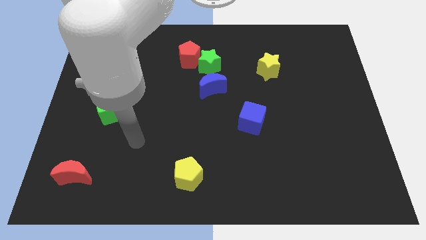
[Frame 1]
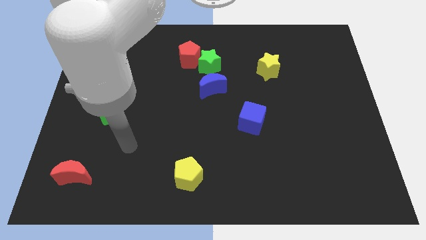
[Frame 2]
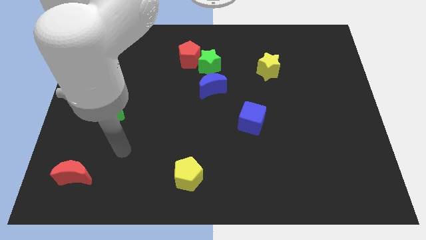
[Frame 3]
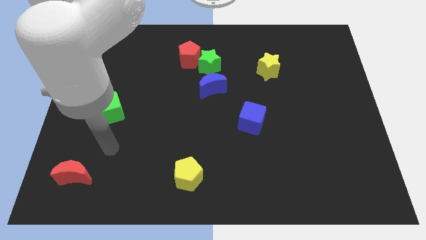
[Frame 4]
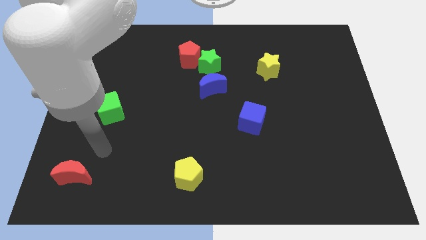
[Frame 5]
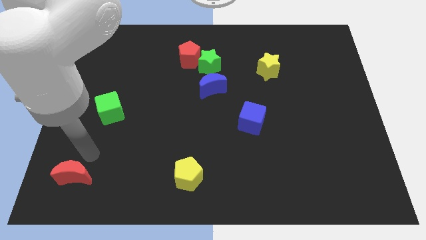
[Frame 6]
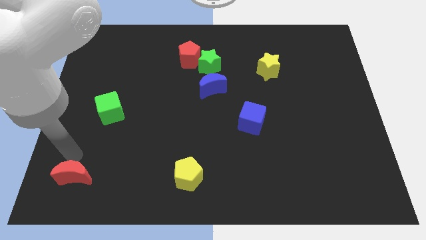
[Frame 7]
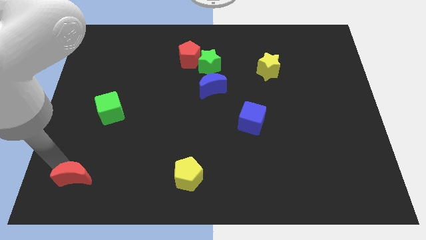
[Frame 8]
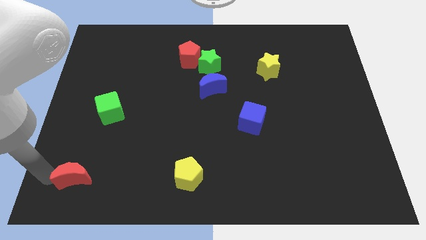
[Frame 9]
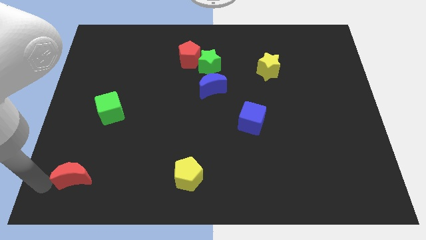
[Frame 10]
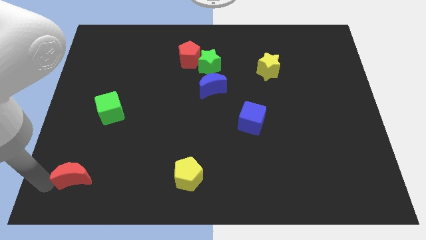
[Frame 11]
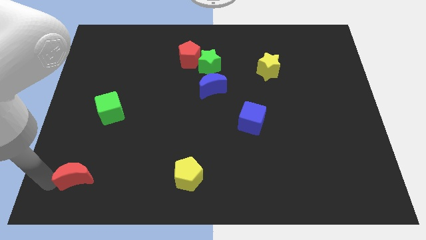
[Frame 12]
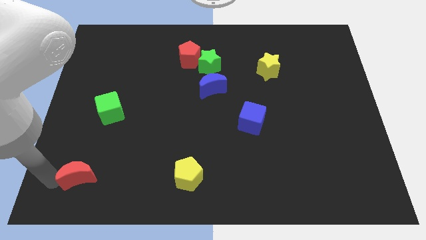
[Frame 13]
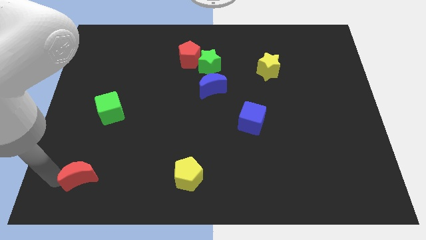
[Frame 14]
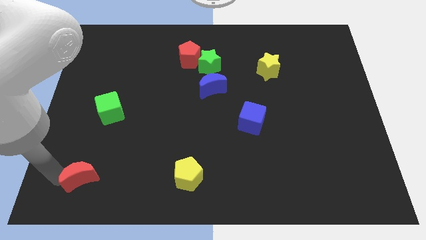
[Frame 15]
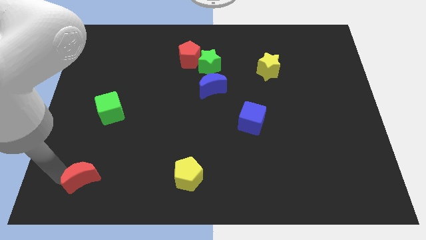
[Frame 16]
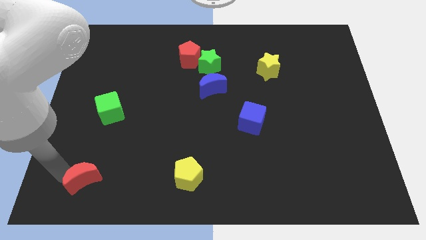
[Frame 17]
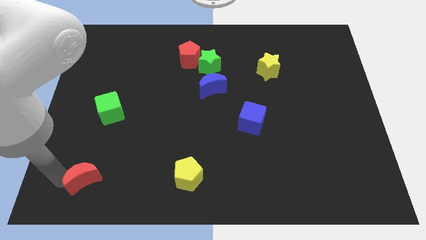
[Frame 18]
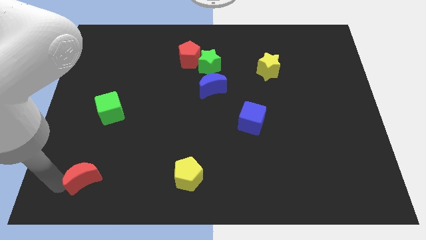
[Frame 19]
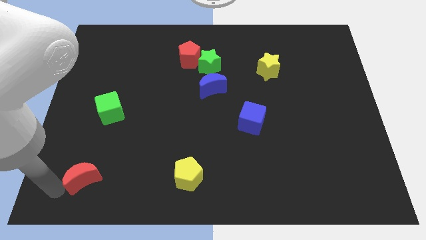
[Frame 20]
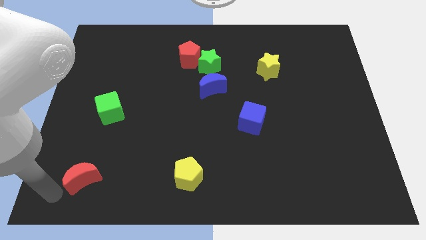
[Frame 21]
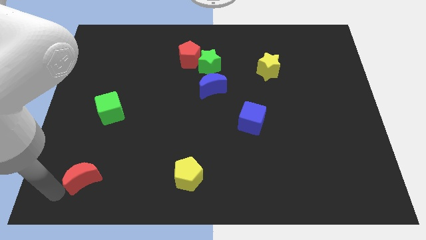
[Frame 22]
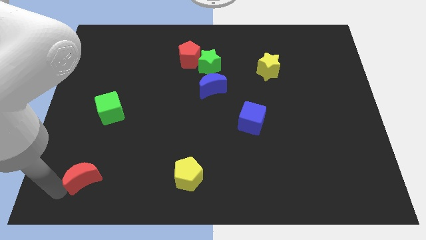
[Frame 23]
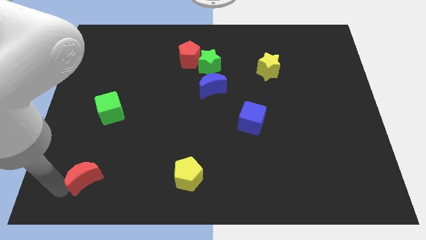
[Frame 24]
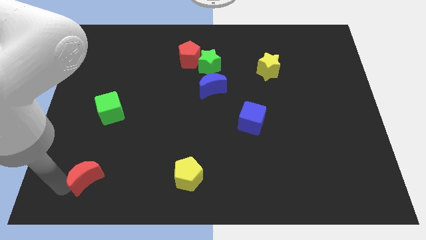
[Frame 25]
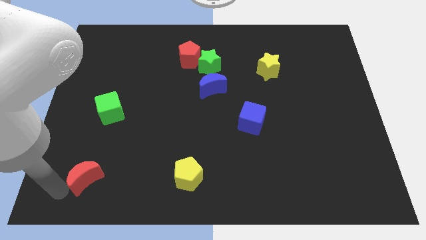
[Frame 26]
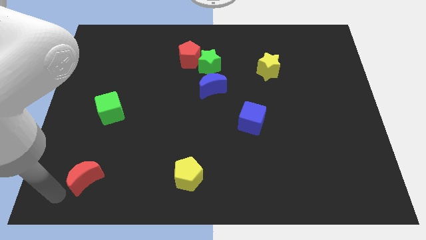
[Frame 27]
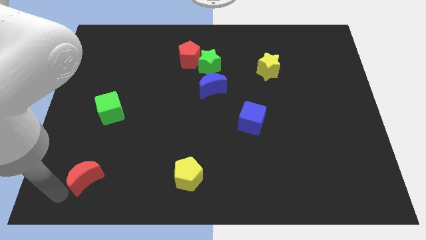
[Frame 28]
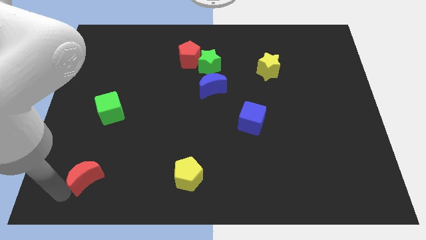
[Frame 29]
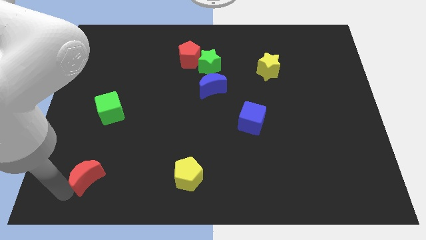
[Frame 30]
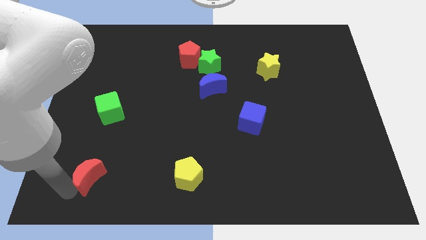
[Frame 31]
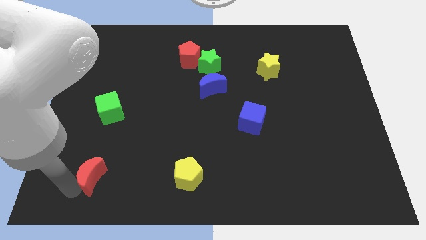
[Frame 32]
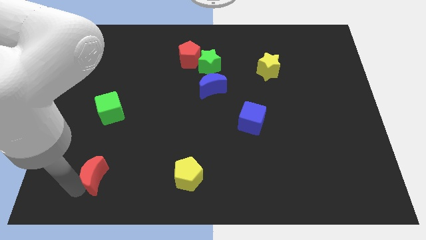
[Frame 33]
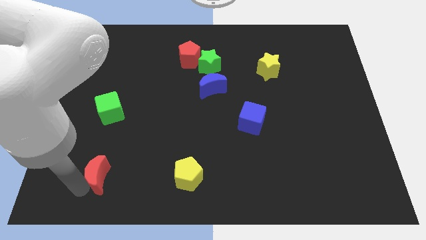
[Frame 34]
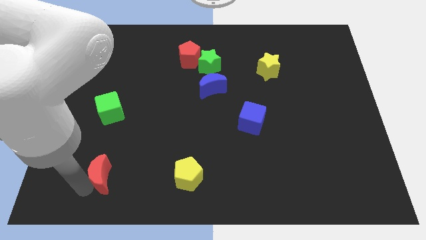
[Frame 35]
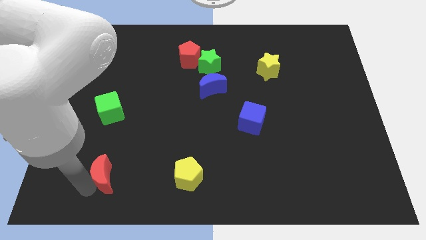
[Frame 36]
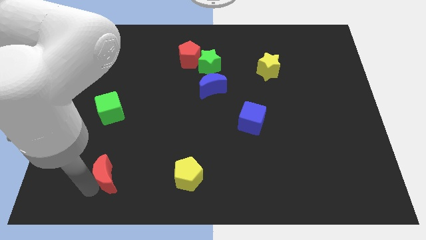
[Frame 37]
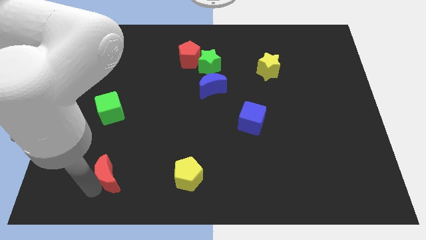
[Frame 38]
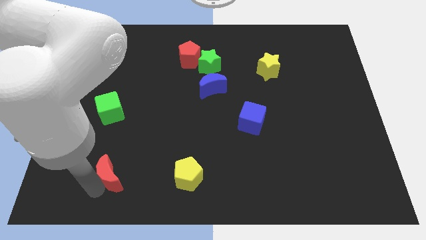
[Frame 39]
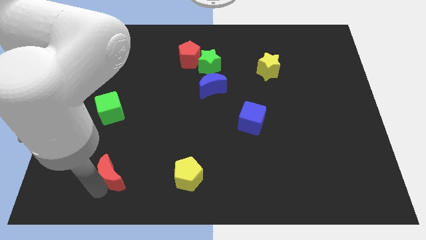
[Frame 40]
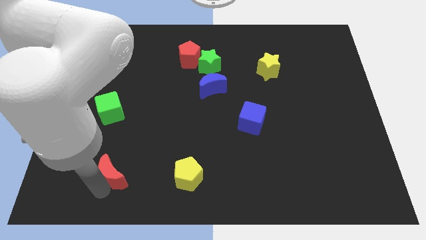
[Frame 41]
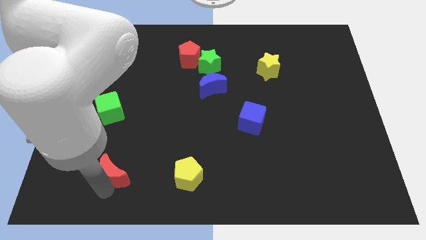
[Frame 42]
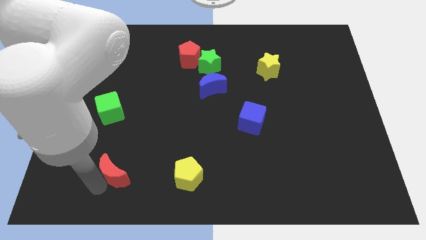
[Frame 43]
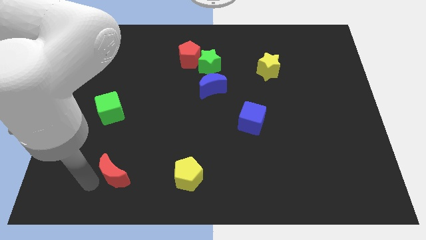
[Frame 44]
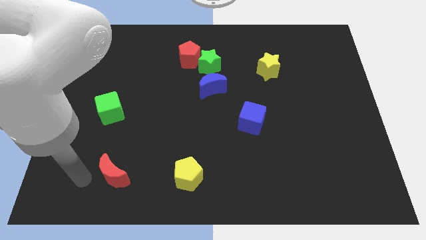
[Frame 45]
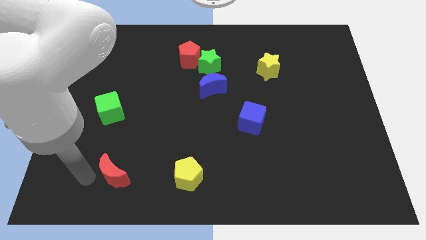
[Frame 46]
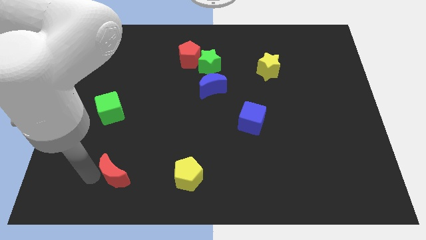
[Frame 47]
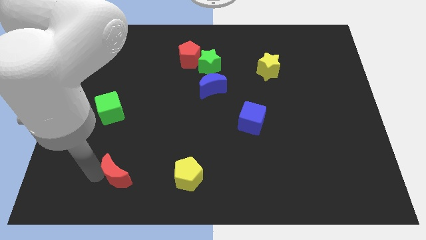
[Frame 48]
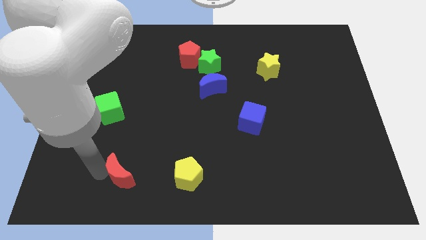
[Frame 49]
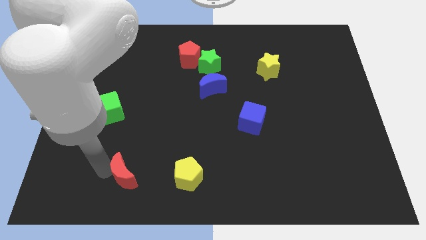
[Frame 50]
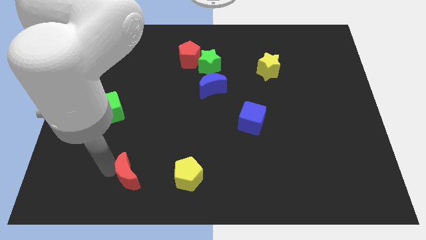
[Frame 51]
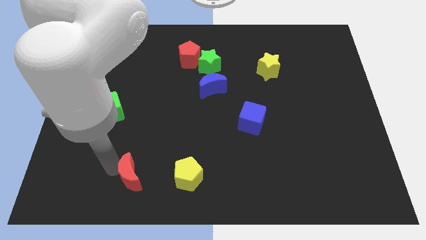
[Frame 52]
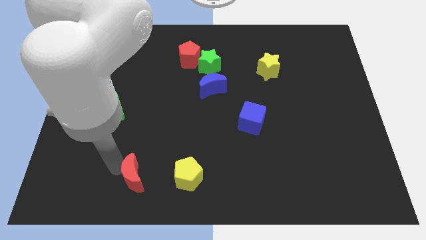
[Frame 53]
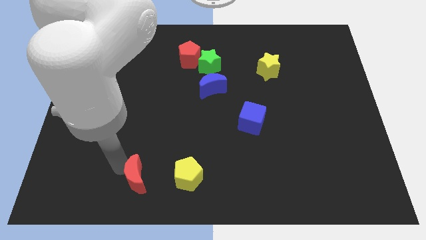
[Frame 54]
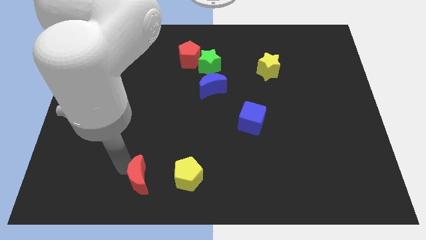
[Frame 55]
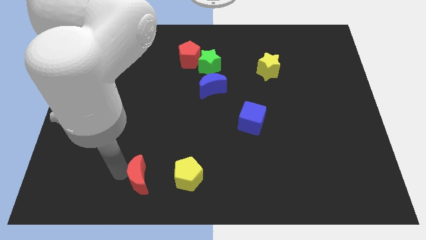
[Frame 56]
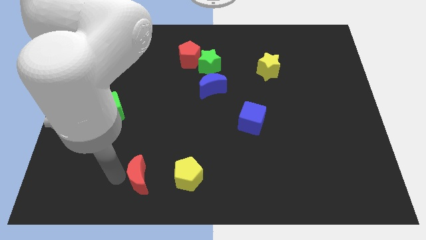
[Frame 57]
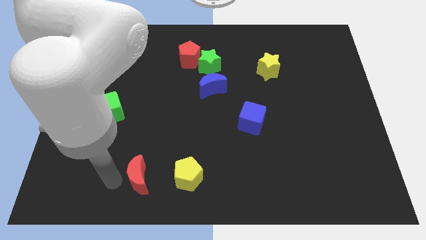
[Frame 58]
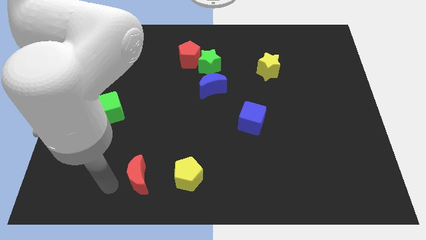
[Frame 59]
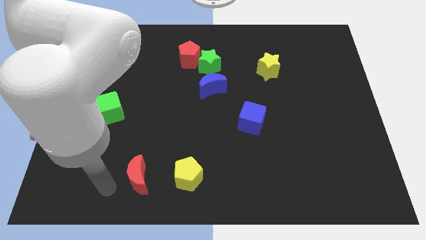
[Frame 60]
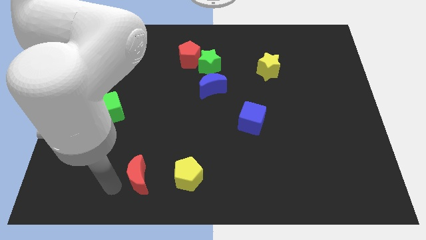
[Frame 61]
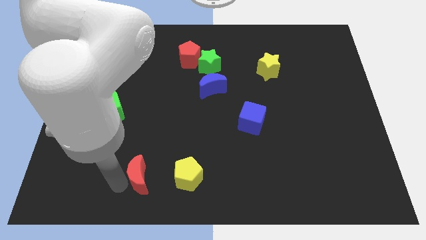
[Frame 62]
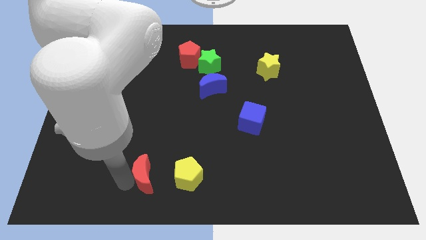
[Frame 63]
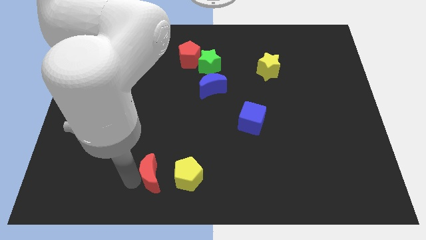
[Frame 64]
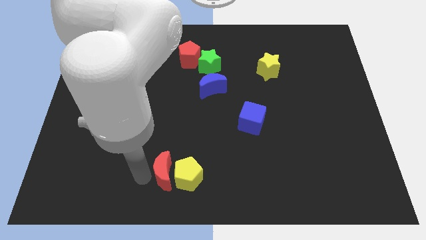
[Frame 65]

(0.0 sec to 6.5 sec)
slide the red moon to the yellow pentagon

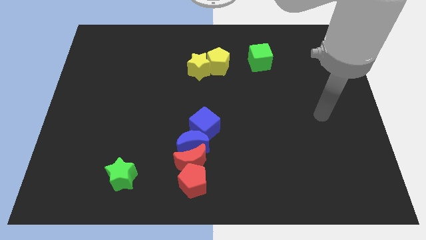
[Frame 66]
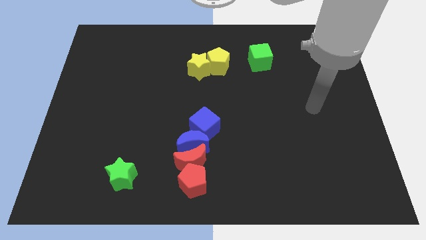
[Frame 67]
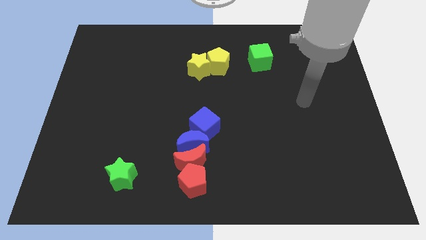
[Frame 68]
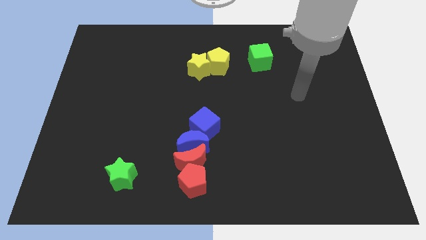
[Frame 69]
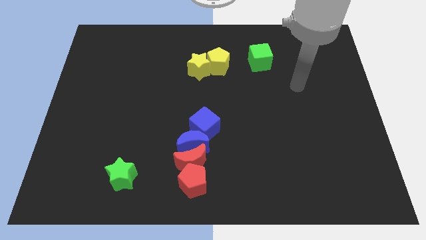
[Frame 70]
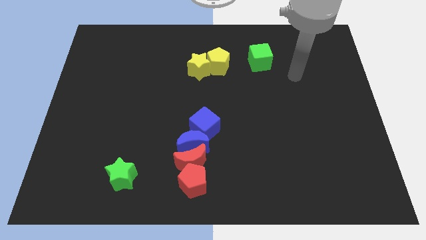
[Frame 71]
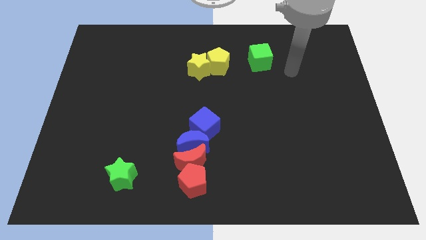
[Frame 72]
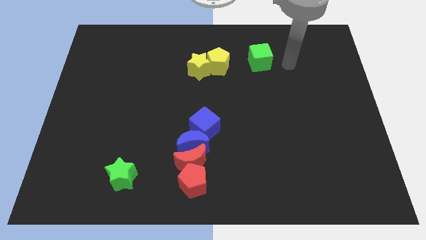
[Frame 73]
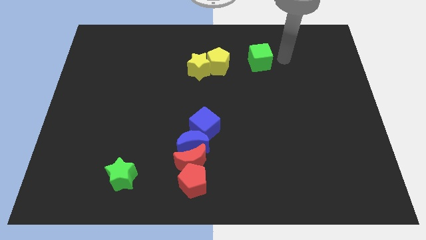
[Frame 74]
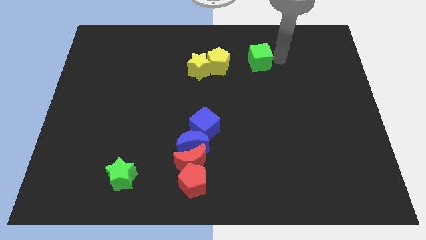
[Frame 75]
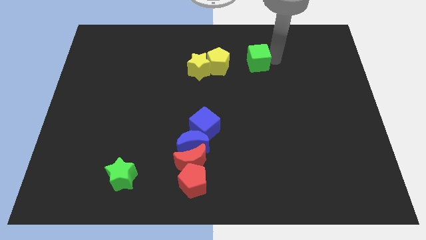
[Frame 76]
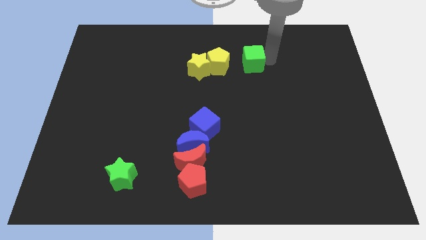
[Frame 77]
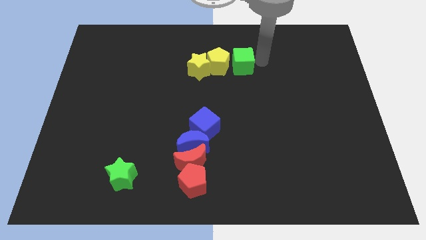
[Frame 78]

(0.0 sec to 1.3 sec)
move the green cube towards the yellow pentagon
